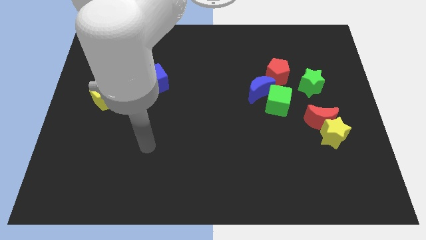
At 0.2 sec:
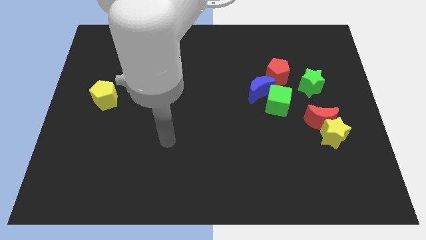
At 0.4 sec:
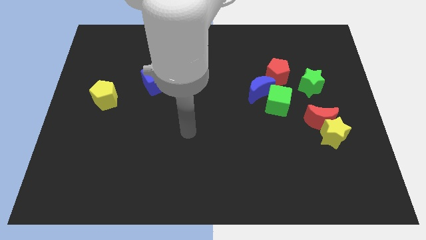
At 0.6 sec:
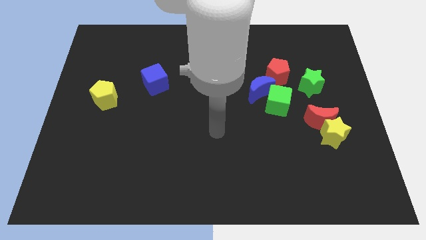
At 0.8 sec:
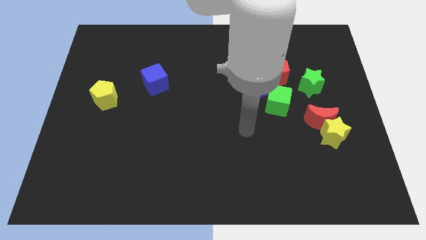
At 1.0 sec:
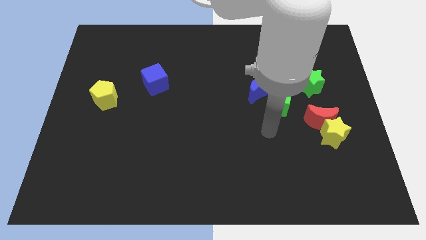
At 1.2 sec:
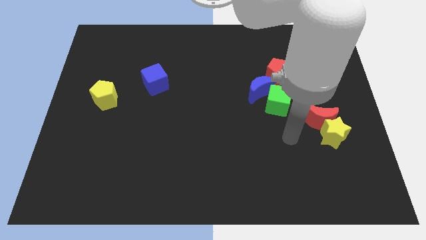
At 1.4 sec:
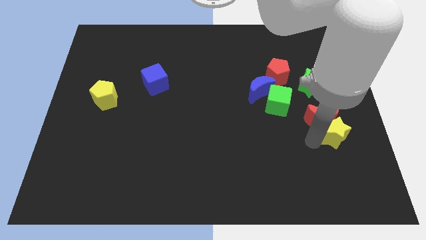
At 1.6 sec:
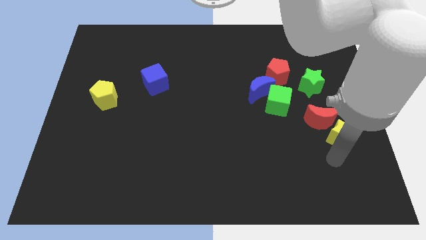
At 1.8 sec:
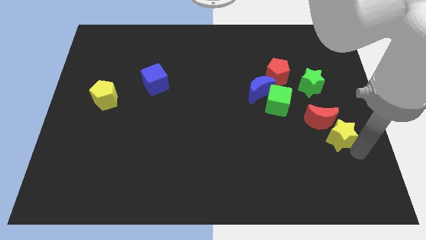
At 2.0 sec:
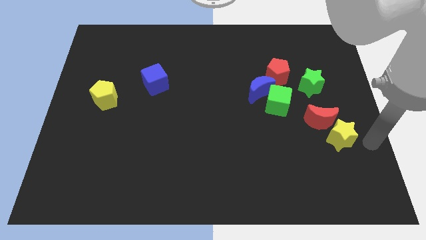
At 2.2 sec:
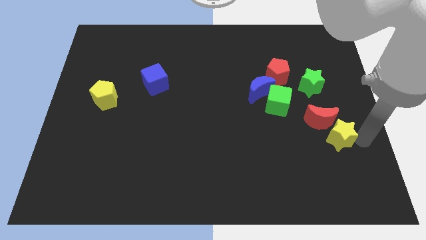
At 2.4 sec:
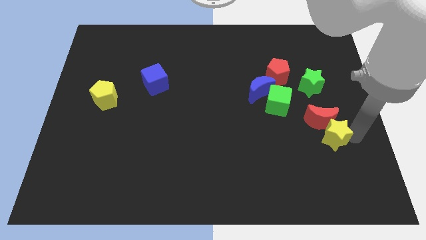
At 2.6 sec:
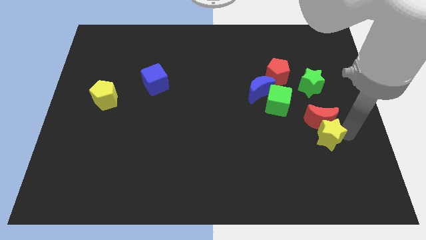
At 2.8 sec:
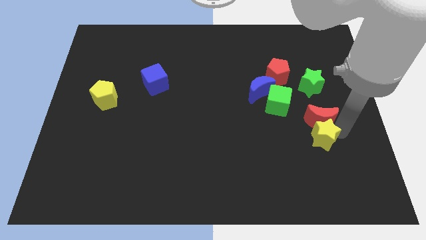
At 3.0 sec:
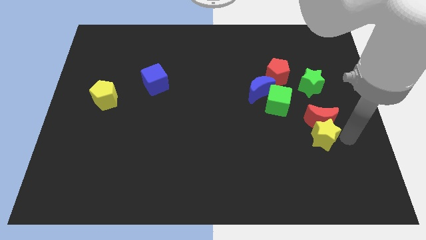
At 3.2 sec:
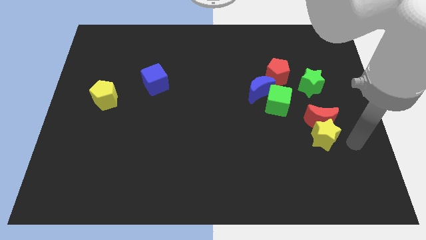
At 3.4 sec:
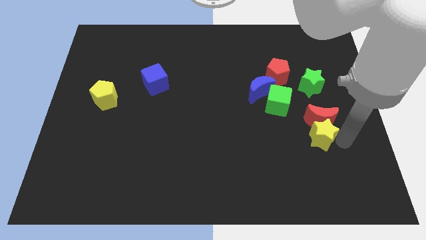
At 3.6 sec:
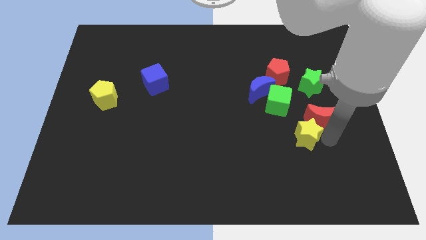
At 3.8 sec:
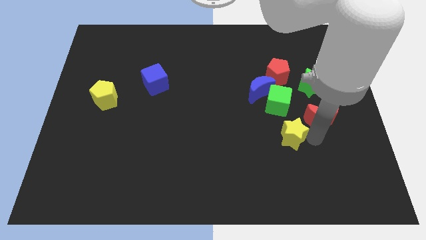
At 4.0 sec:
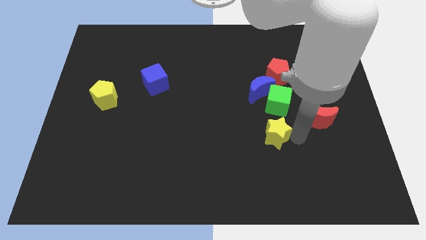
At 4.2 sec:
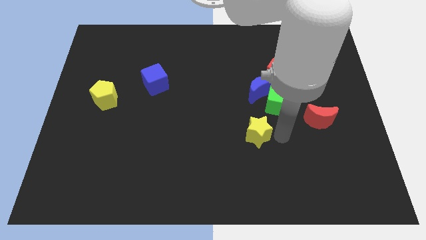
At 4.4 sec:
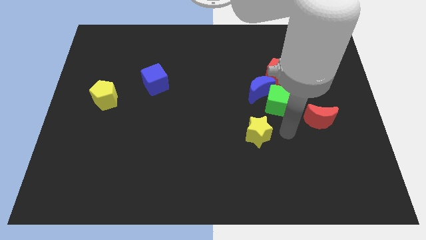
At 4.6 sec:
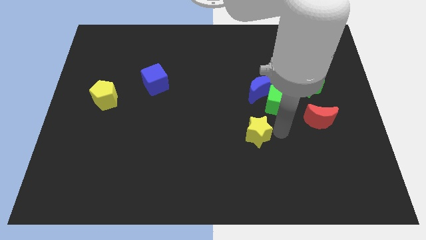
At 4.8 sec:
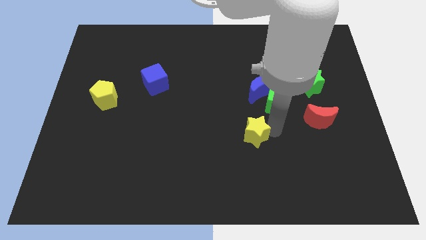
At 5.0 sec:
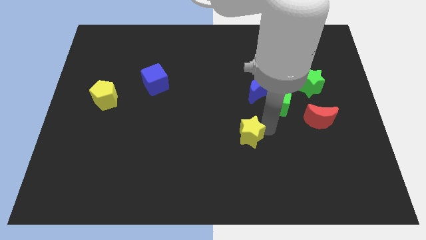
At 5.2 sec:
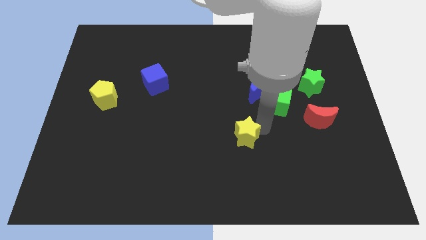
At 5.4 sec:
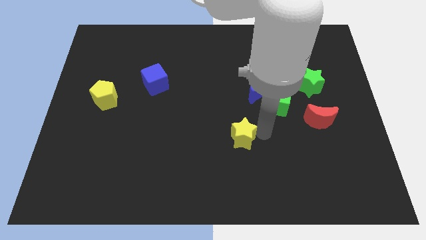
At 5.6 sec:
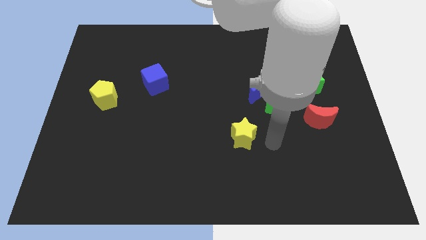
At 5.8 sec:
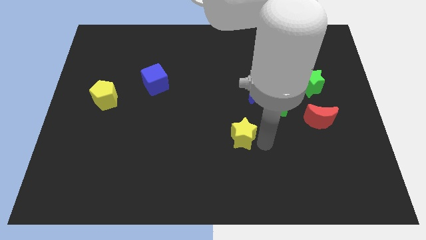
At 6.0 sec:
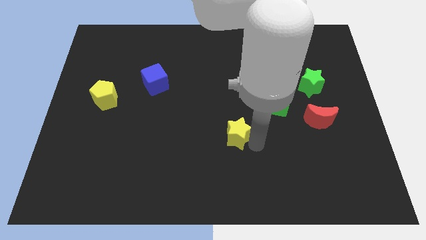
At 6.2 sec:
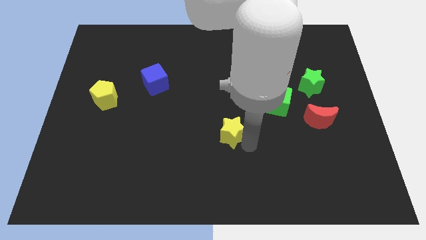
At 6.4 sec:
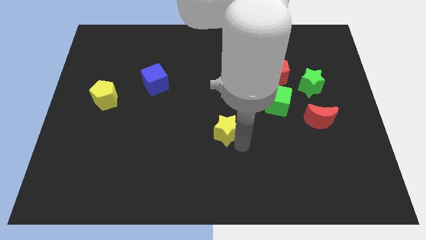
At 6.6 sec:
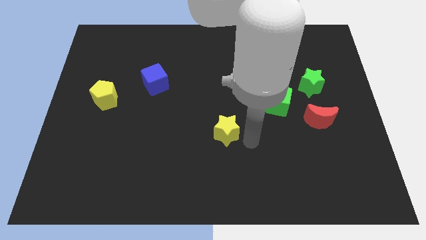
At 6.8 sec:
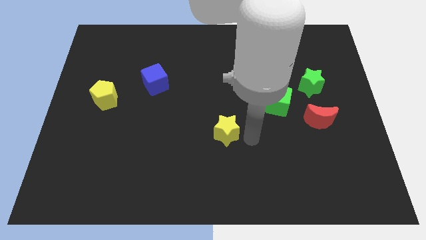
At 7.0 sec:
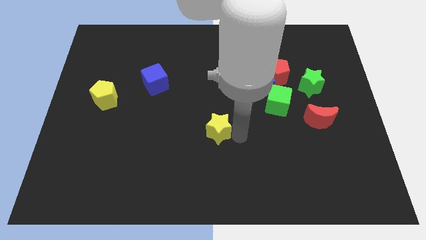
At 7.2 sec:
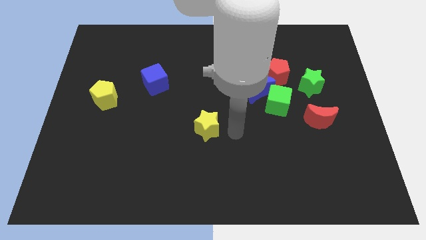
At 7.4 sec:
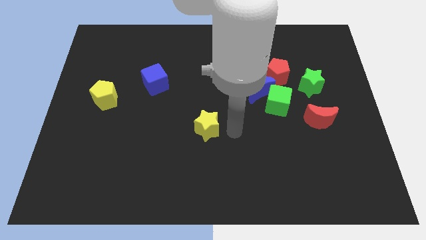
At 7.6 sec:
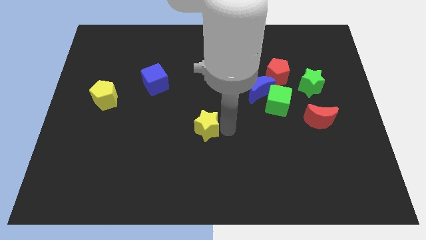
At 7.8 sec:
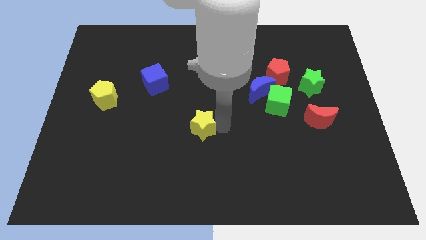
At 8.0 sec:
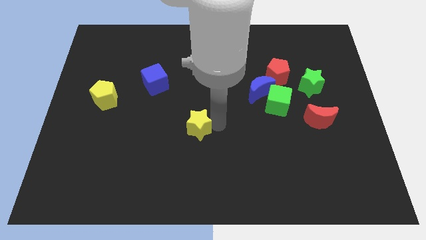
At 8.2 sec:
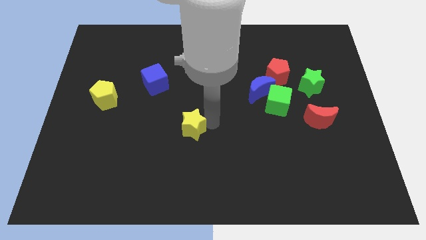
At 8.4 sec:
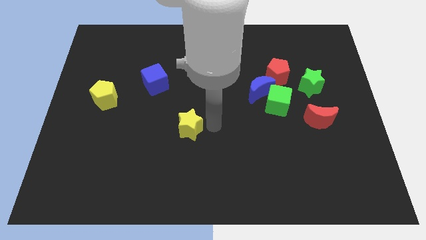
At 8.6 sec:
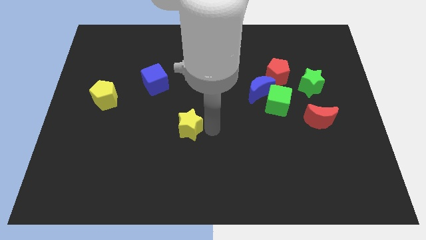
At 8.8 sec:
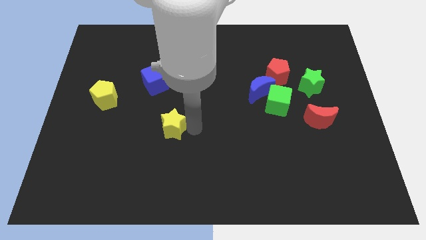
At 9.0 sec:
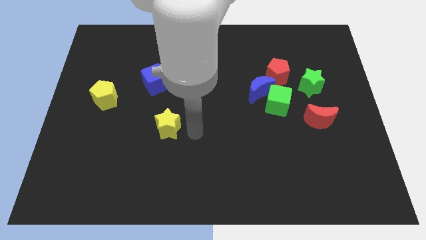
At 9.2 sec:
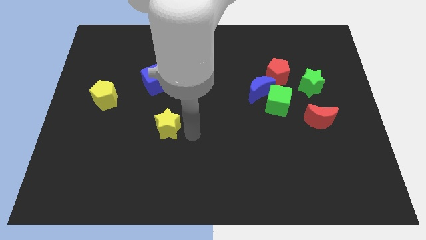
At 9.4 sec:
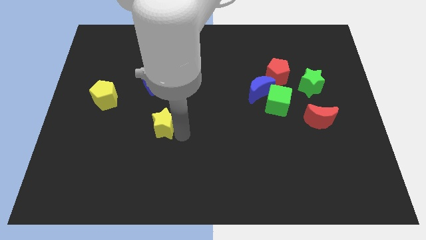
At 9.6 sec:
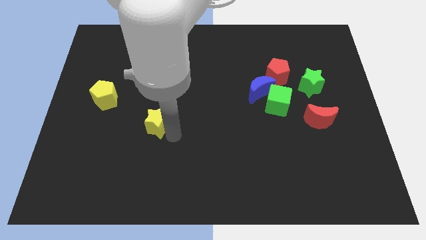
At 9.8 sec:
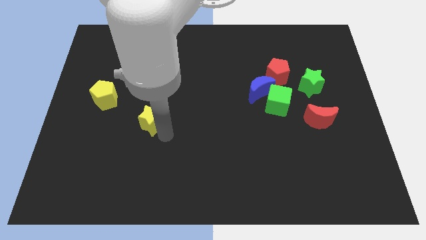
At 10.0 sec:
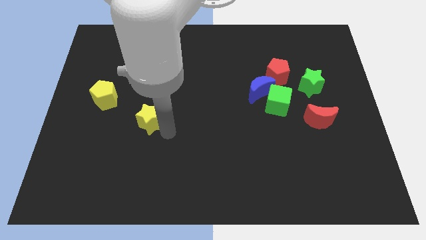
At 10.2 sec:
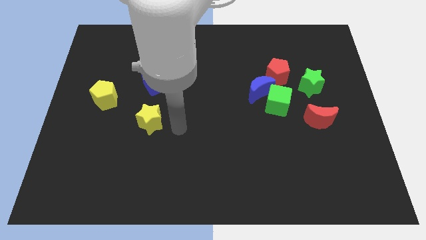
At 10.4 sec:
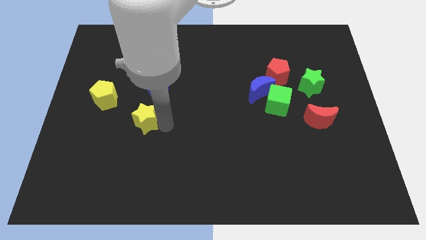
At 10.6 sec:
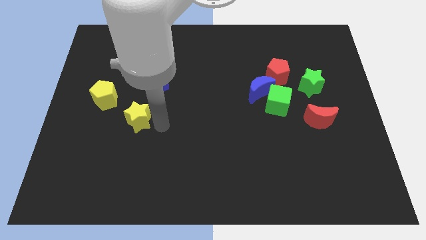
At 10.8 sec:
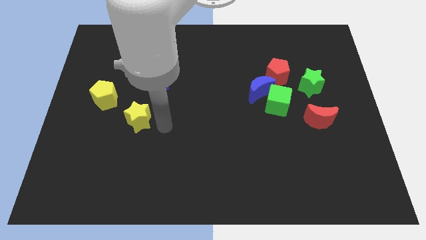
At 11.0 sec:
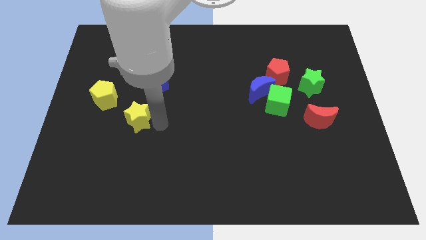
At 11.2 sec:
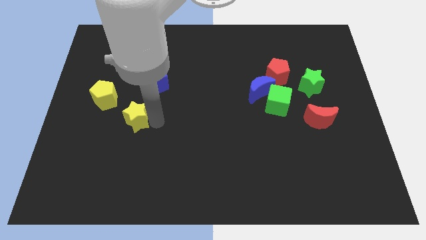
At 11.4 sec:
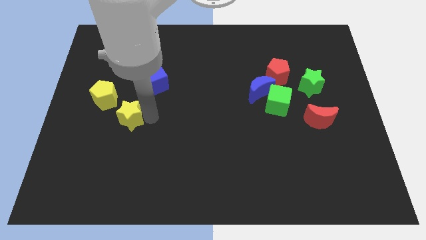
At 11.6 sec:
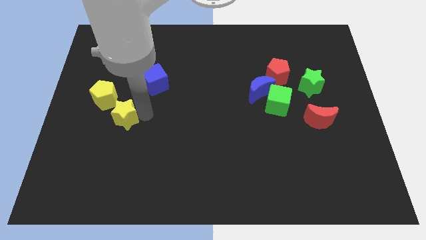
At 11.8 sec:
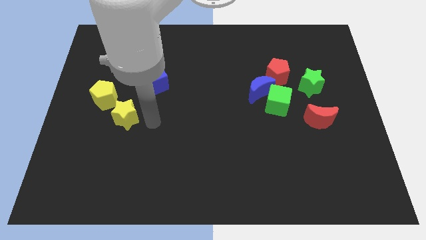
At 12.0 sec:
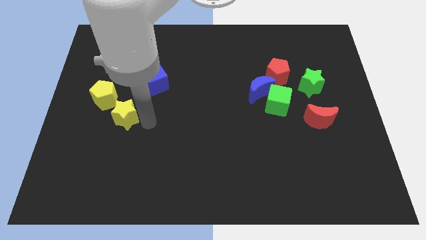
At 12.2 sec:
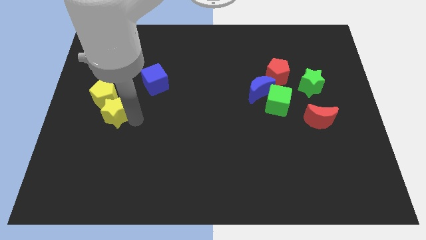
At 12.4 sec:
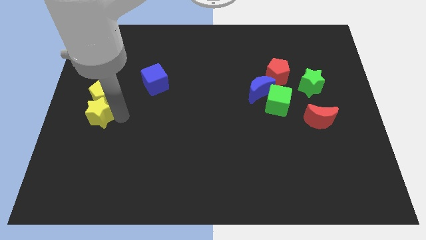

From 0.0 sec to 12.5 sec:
put the yellow star to the center left
